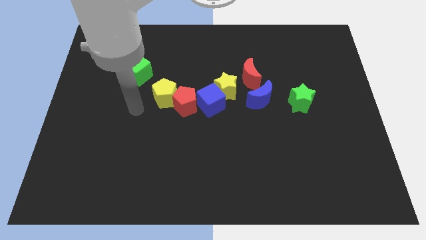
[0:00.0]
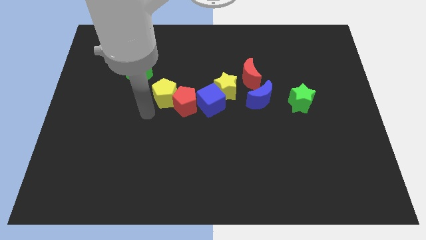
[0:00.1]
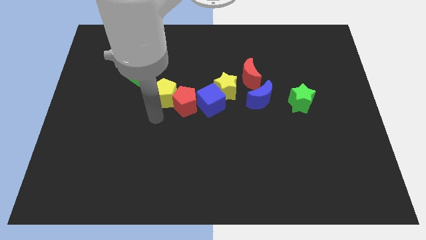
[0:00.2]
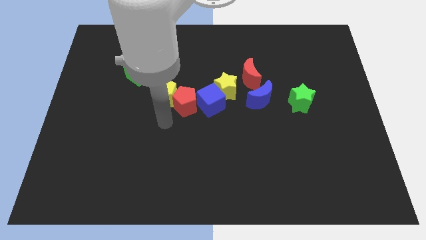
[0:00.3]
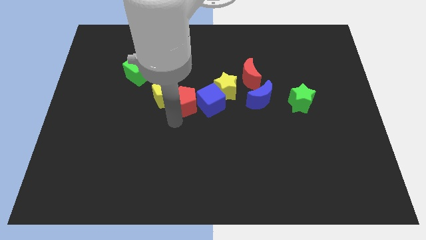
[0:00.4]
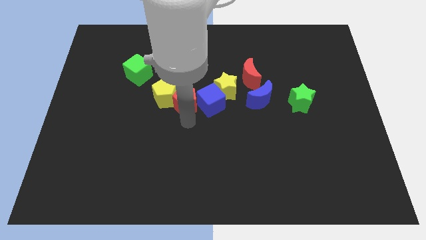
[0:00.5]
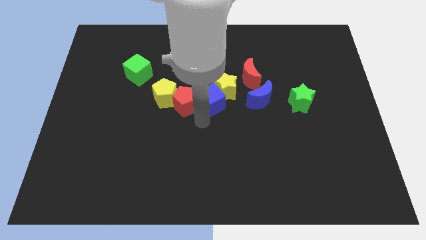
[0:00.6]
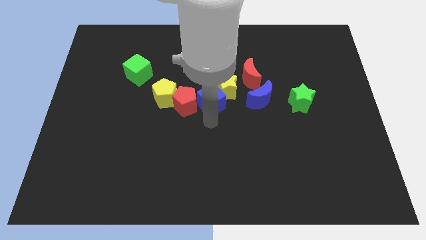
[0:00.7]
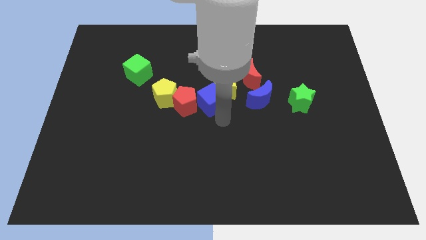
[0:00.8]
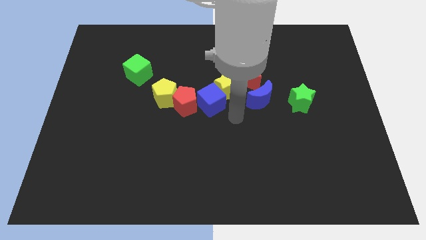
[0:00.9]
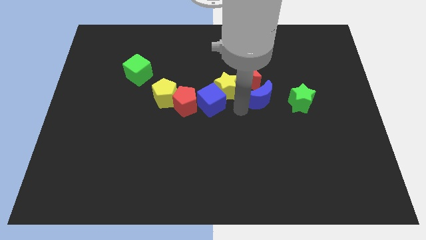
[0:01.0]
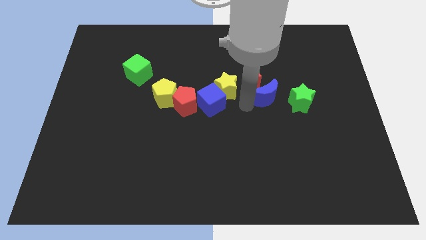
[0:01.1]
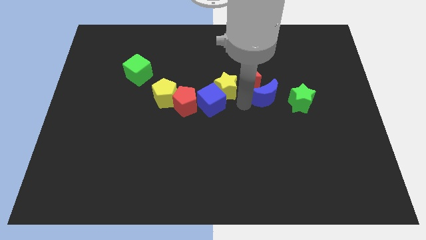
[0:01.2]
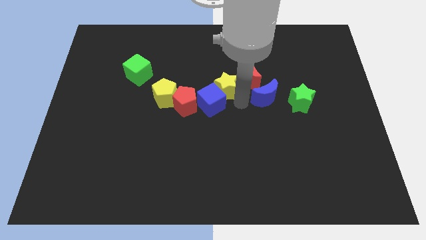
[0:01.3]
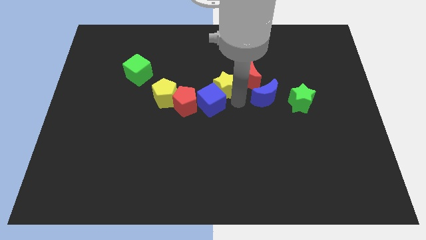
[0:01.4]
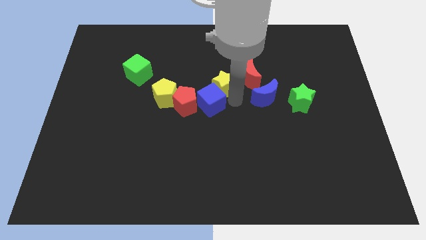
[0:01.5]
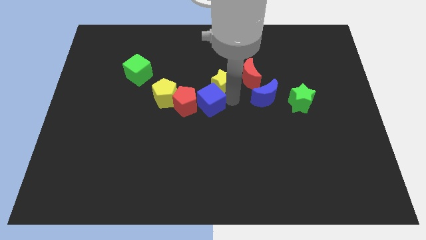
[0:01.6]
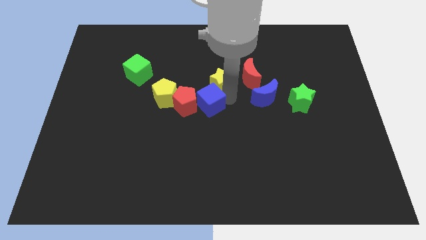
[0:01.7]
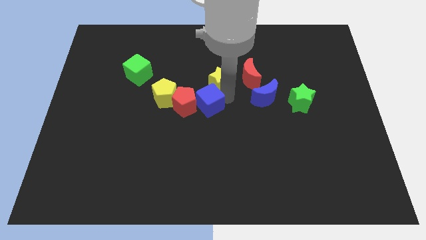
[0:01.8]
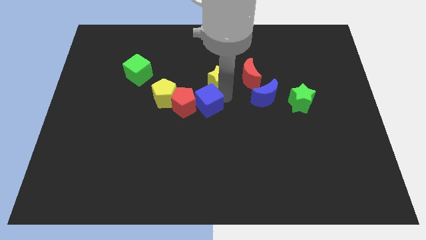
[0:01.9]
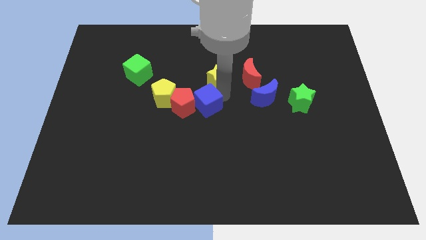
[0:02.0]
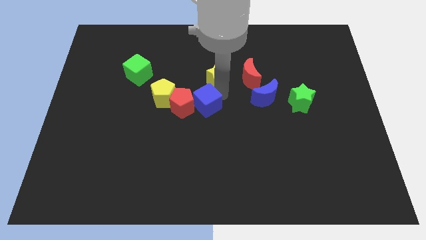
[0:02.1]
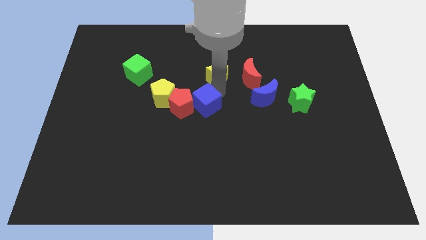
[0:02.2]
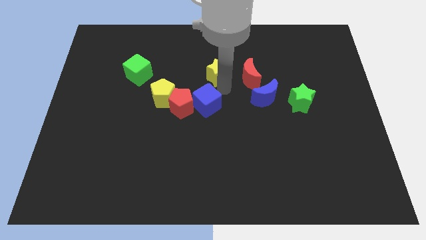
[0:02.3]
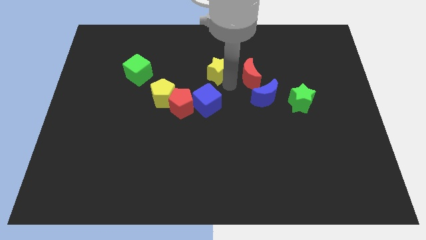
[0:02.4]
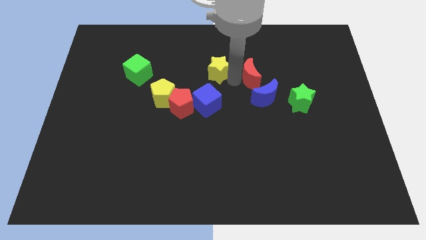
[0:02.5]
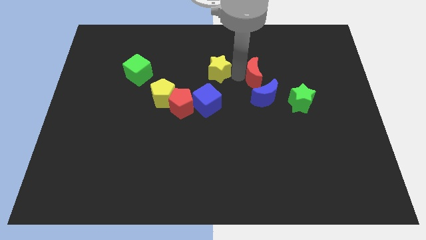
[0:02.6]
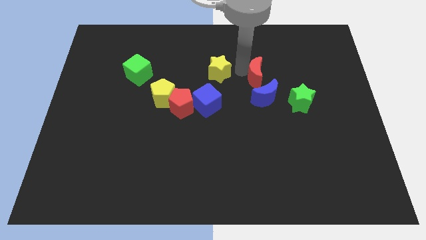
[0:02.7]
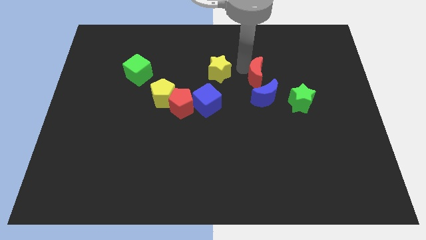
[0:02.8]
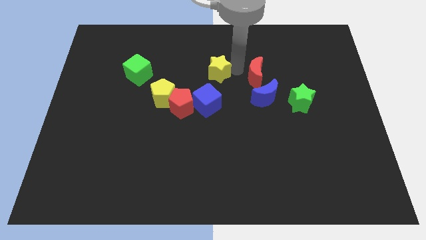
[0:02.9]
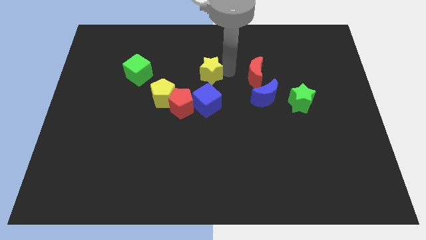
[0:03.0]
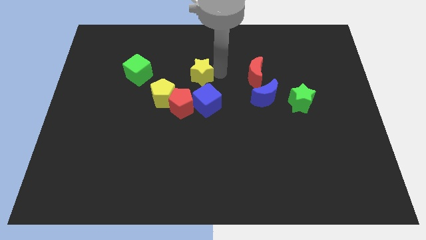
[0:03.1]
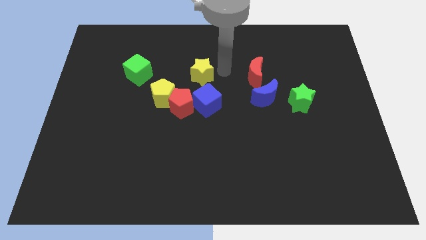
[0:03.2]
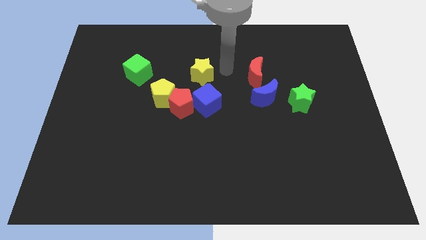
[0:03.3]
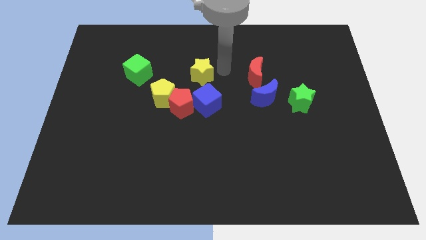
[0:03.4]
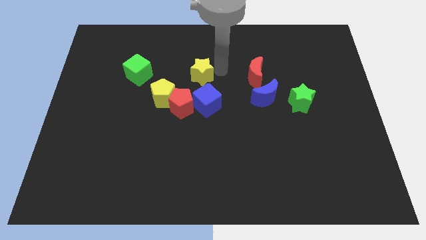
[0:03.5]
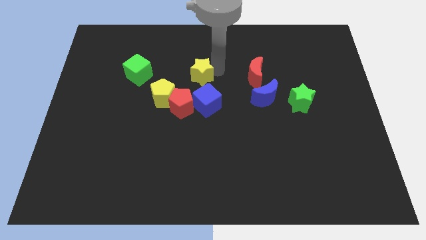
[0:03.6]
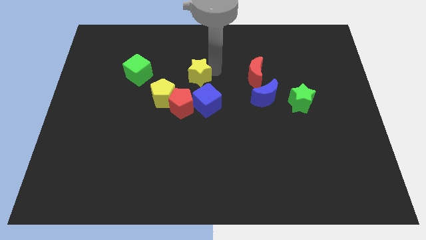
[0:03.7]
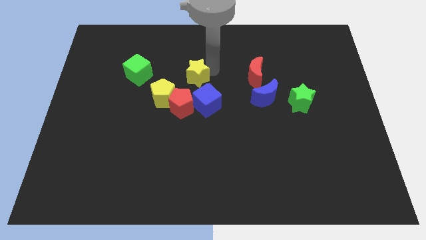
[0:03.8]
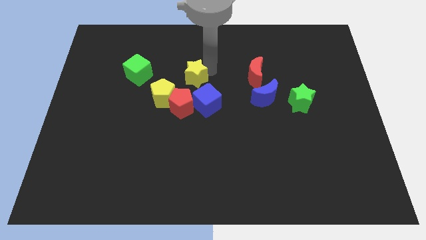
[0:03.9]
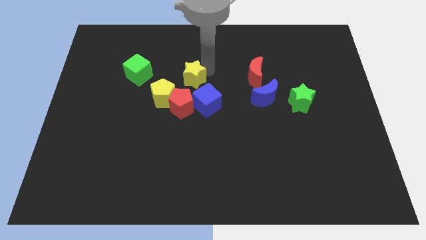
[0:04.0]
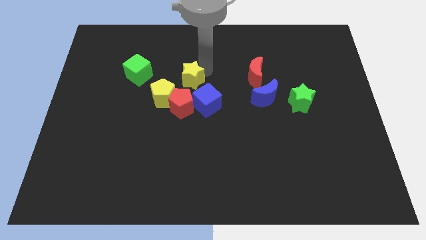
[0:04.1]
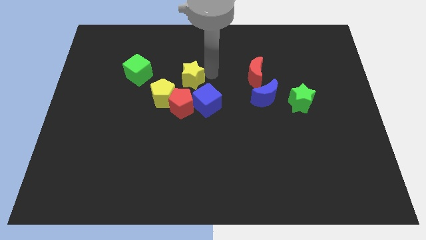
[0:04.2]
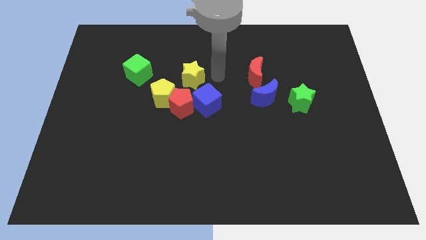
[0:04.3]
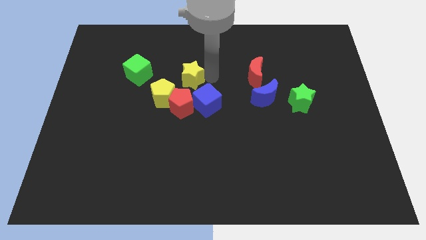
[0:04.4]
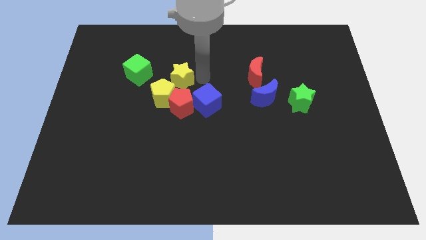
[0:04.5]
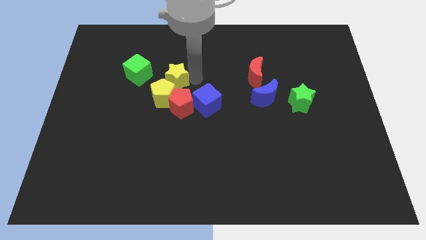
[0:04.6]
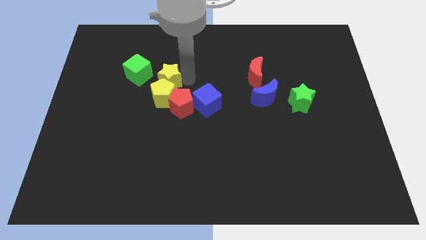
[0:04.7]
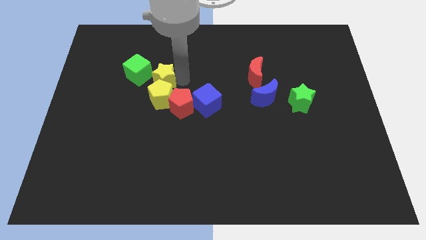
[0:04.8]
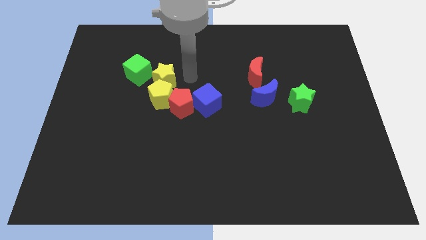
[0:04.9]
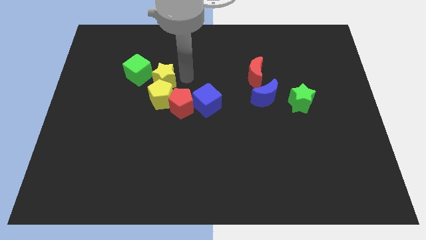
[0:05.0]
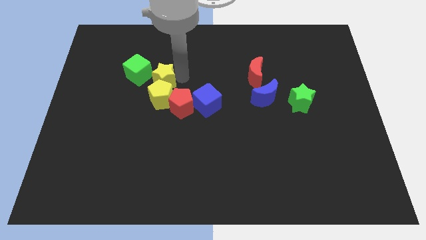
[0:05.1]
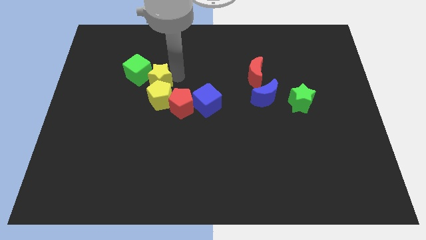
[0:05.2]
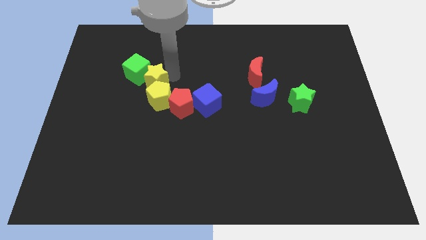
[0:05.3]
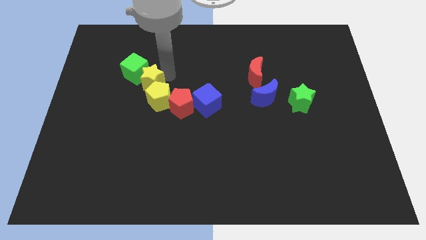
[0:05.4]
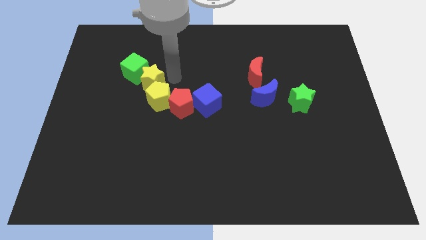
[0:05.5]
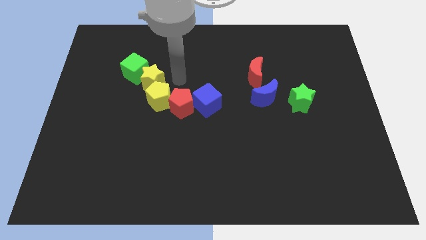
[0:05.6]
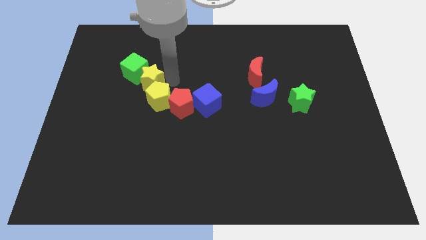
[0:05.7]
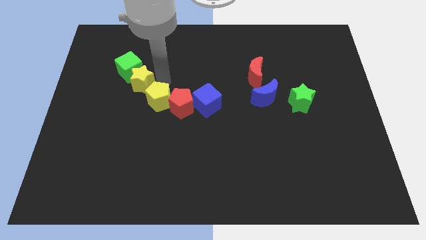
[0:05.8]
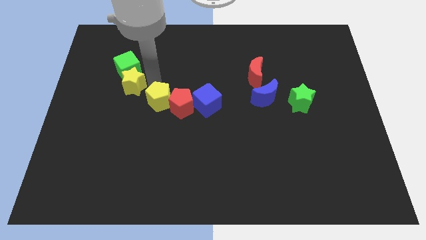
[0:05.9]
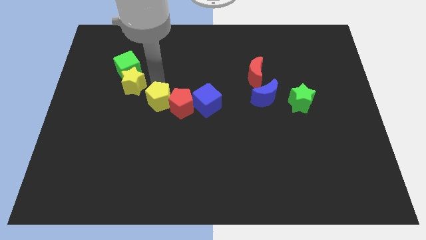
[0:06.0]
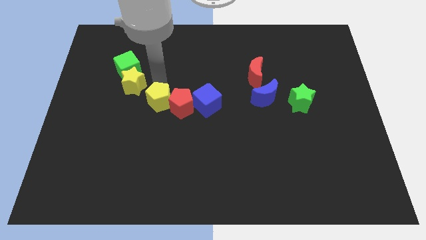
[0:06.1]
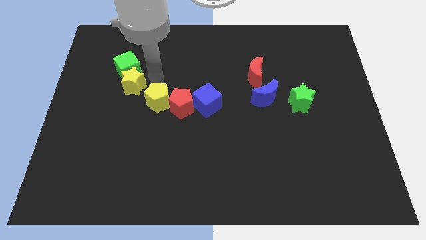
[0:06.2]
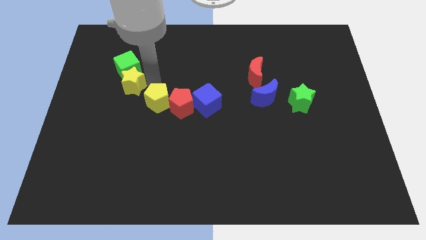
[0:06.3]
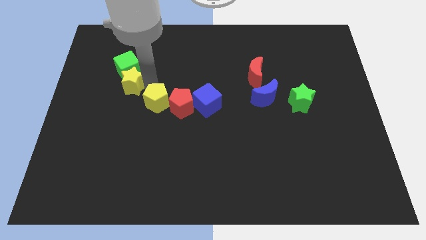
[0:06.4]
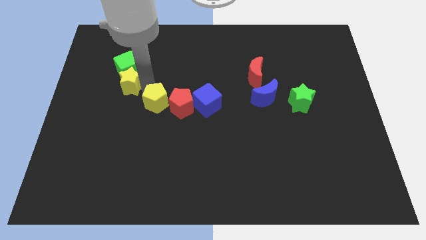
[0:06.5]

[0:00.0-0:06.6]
put the yellow star diagonally down and to the left of the green cube
